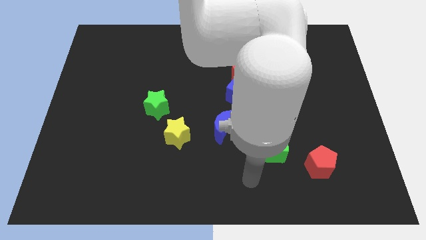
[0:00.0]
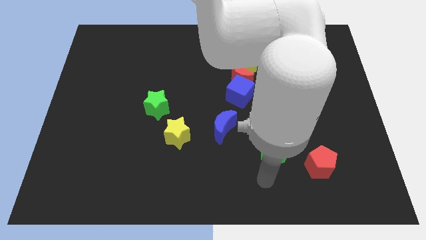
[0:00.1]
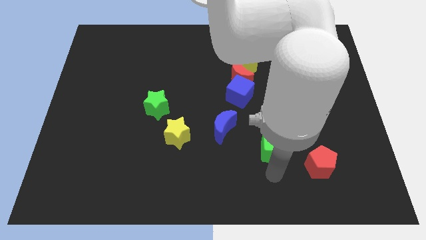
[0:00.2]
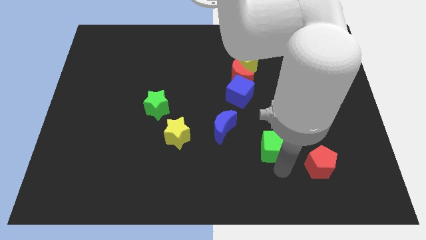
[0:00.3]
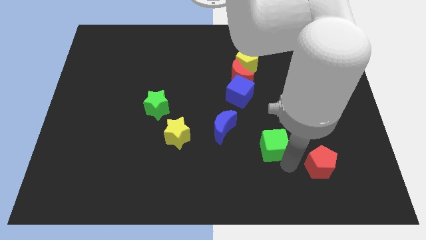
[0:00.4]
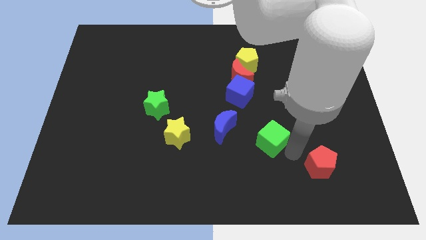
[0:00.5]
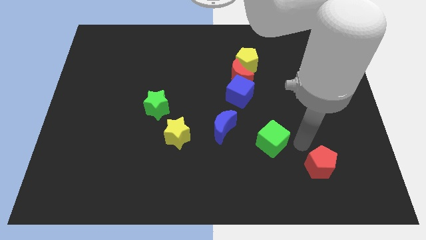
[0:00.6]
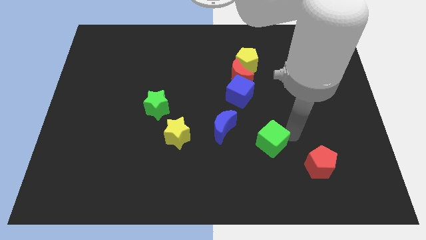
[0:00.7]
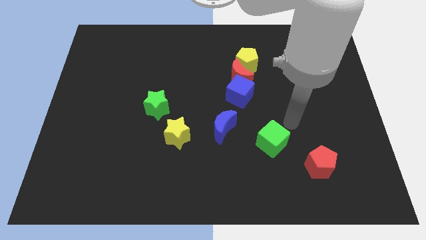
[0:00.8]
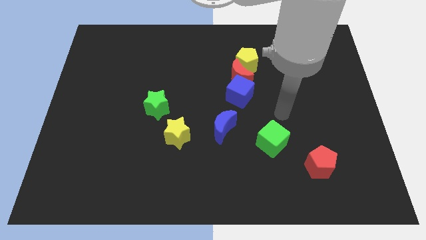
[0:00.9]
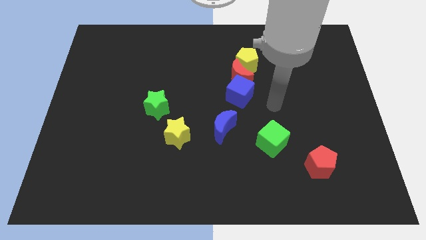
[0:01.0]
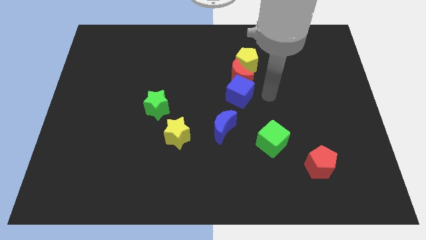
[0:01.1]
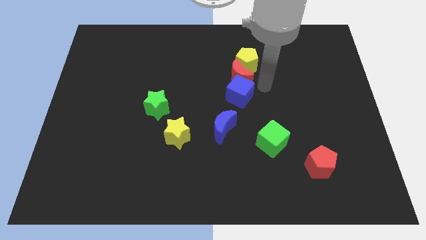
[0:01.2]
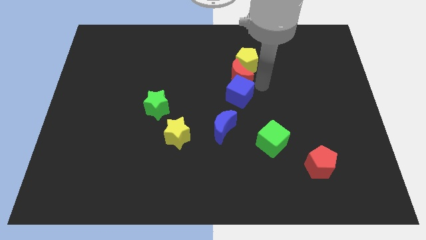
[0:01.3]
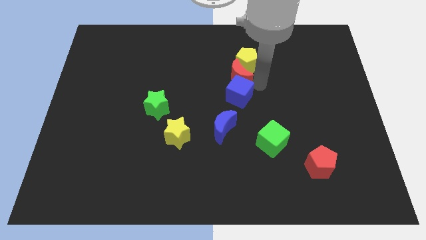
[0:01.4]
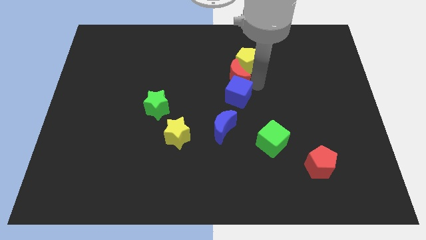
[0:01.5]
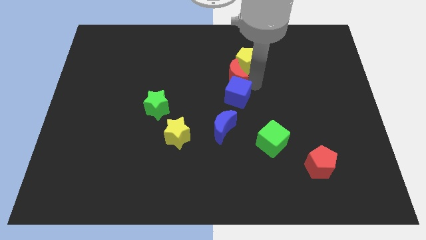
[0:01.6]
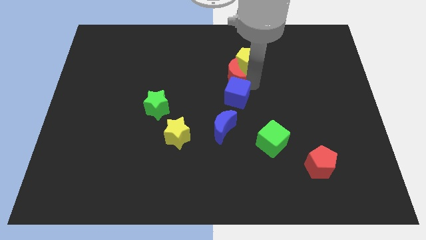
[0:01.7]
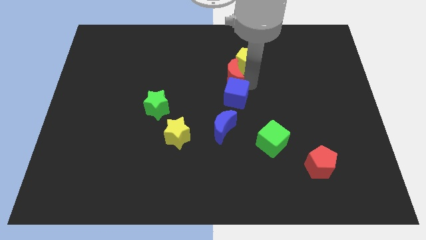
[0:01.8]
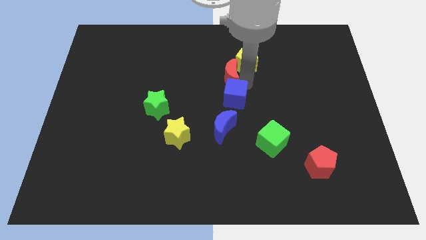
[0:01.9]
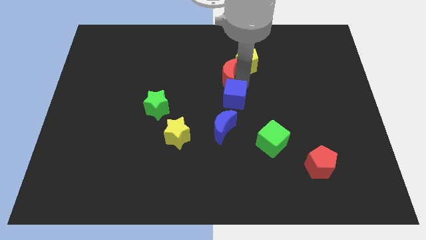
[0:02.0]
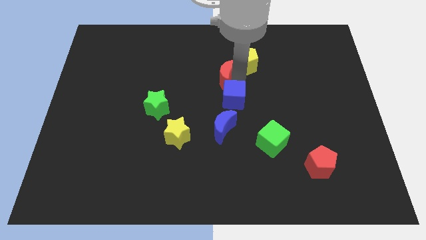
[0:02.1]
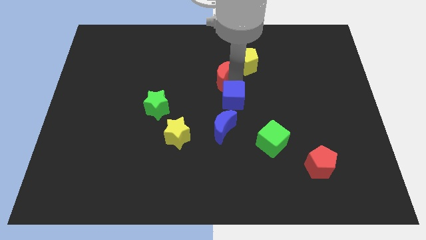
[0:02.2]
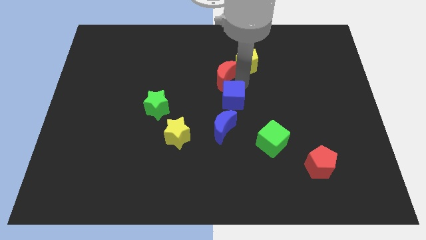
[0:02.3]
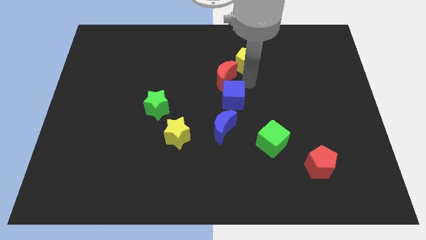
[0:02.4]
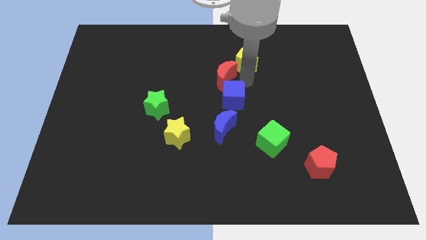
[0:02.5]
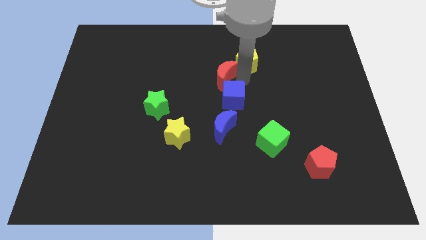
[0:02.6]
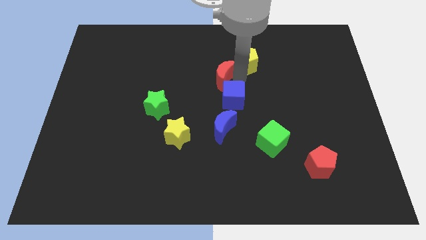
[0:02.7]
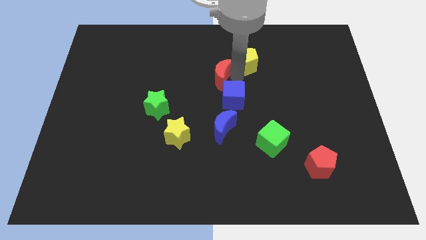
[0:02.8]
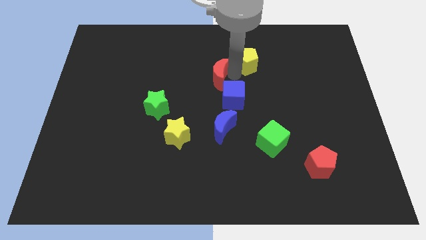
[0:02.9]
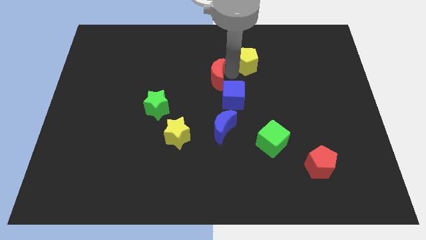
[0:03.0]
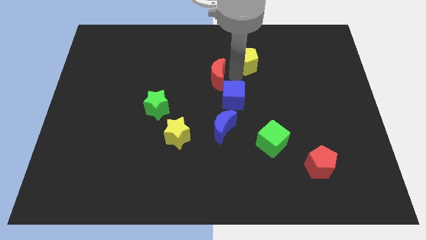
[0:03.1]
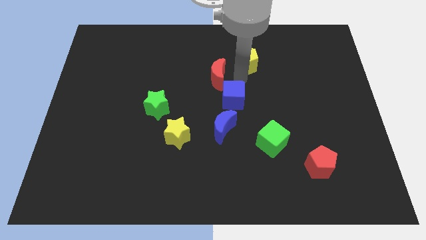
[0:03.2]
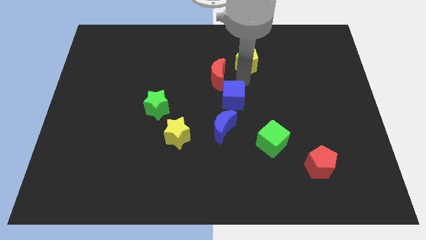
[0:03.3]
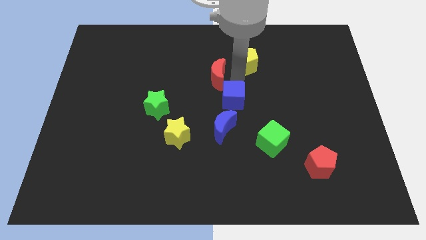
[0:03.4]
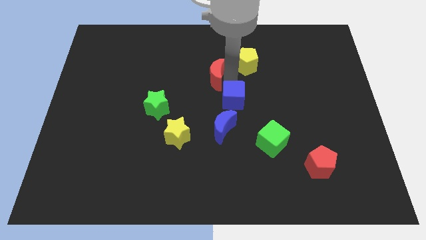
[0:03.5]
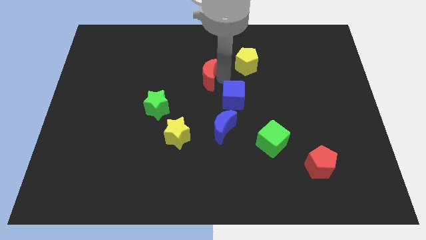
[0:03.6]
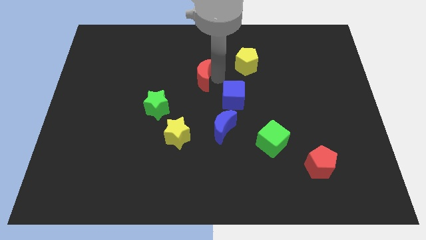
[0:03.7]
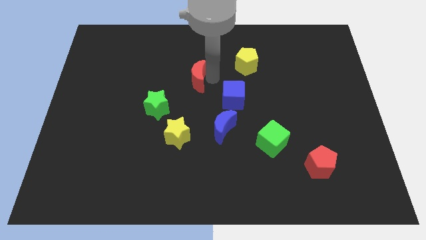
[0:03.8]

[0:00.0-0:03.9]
separate the red moon from the yellow pentagon and blue cube

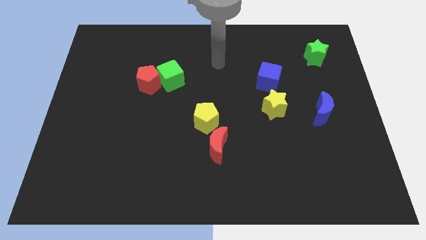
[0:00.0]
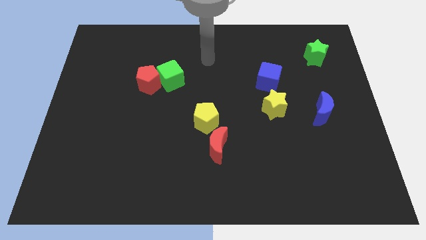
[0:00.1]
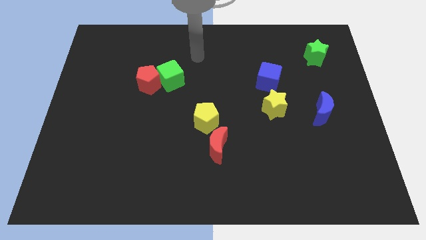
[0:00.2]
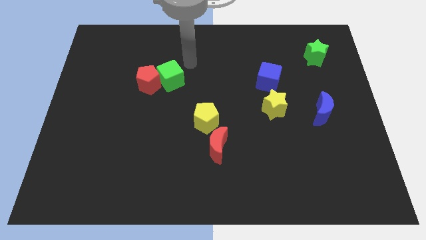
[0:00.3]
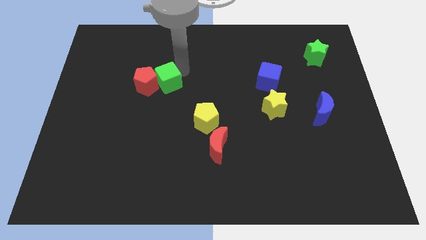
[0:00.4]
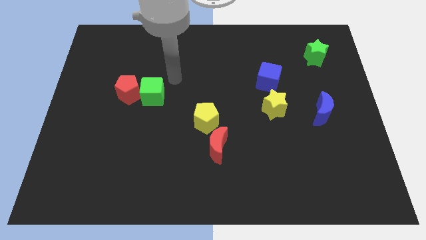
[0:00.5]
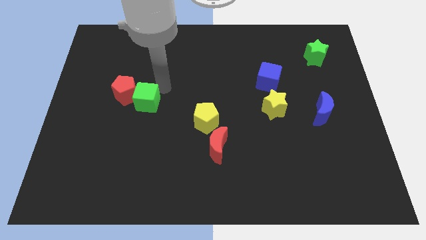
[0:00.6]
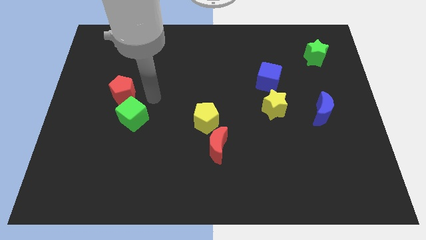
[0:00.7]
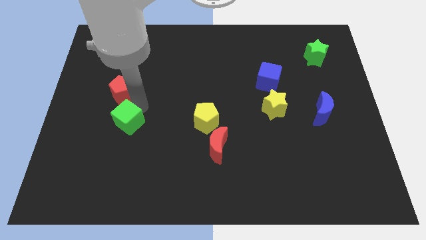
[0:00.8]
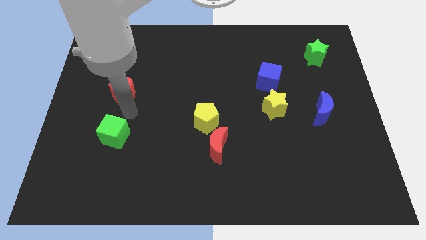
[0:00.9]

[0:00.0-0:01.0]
move the red pentagon away from the green cube

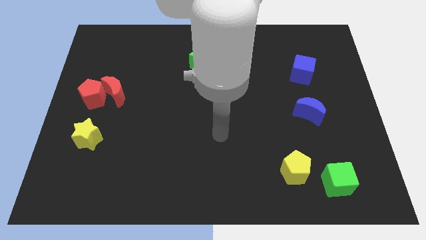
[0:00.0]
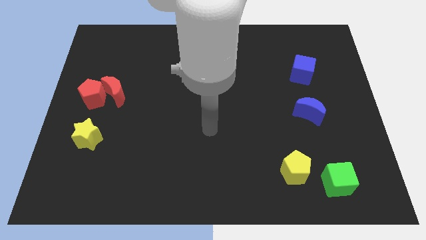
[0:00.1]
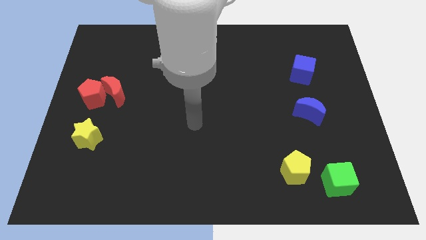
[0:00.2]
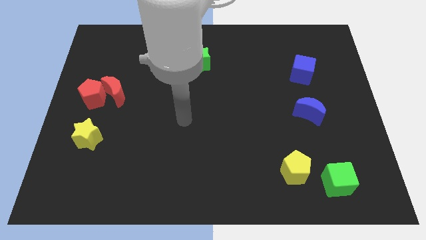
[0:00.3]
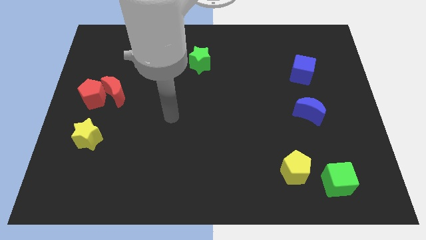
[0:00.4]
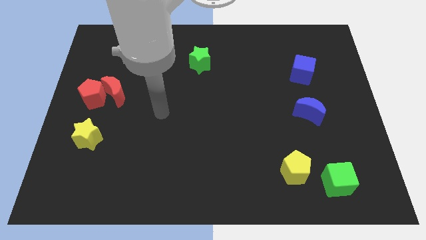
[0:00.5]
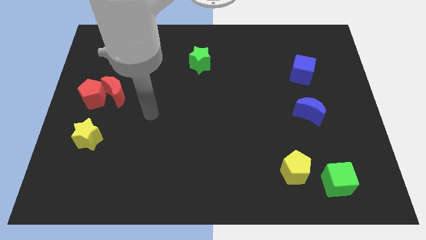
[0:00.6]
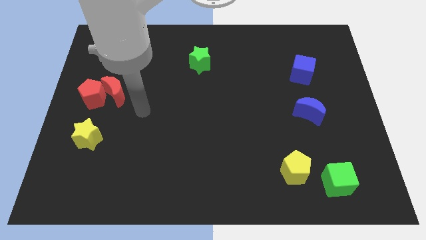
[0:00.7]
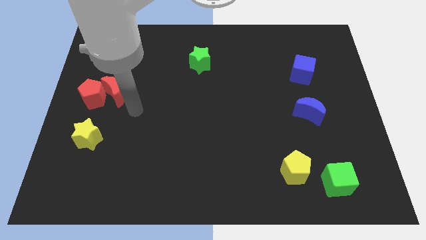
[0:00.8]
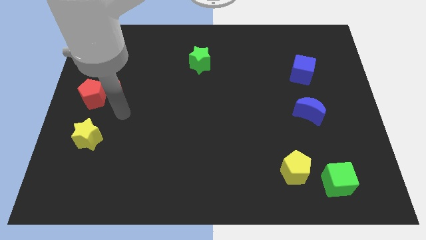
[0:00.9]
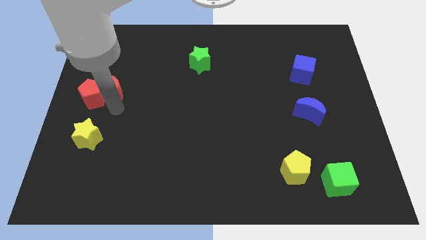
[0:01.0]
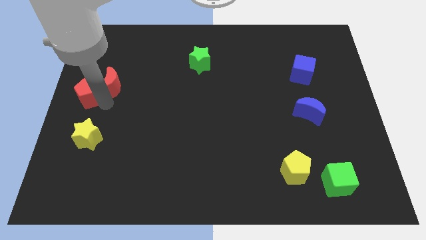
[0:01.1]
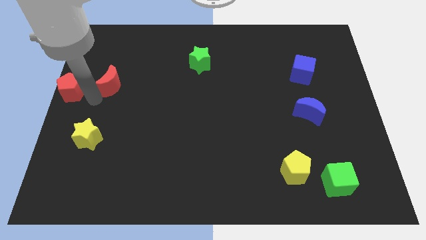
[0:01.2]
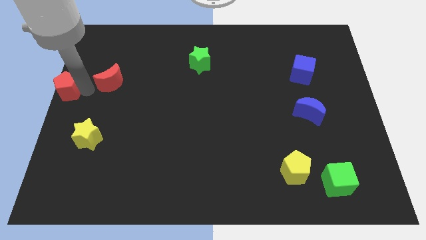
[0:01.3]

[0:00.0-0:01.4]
move the red moon away from the red pentagon

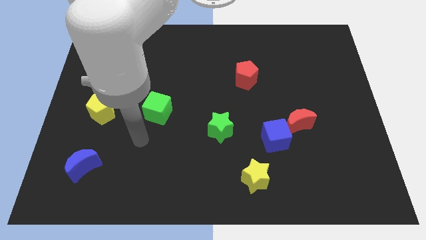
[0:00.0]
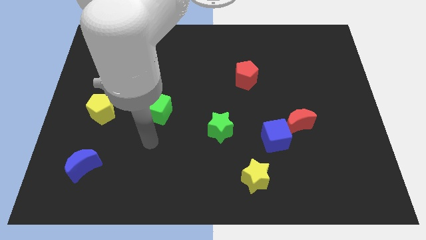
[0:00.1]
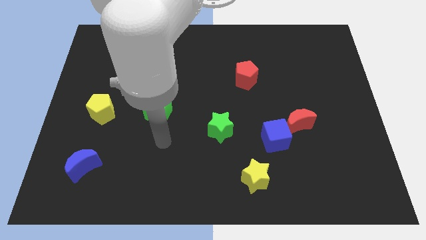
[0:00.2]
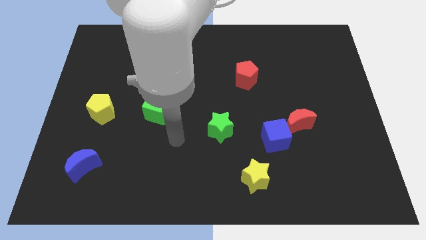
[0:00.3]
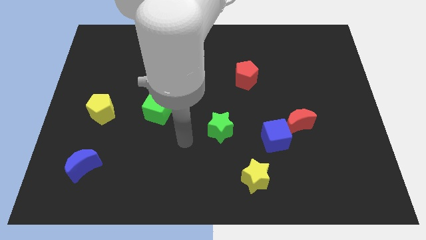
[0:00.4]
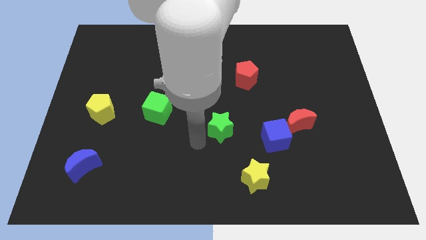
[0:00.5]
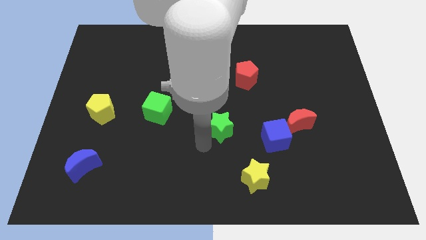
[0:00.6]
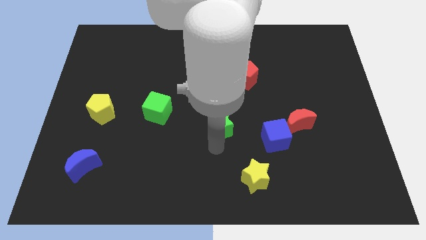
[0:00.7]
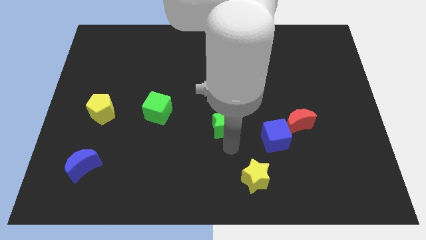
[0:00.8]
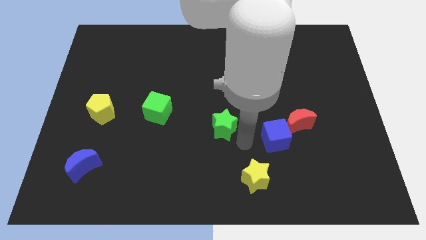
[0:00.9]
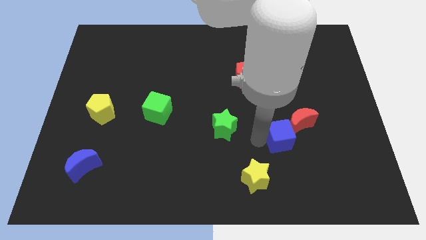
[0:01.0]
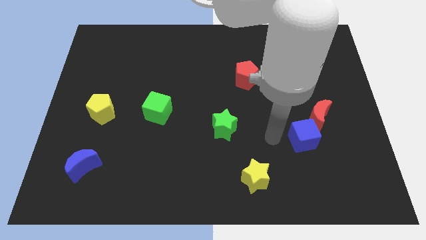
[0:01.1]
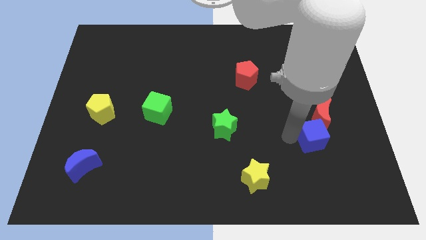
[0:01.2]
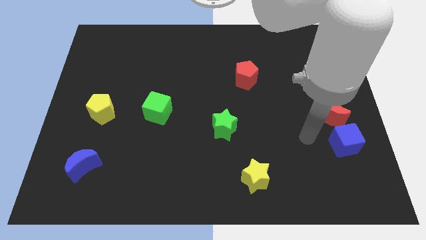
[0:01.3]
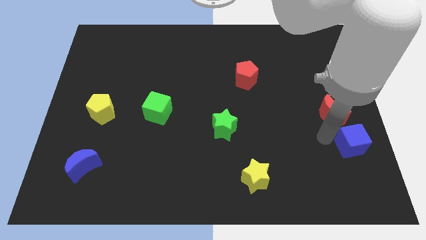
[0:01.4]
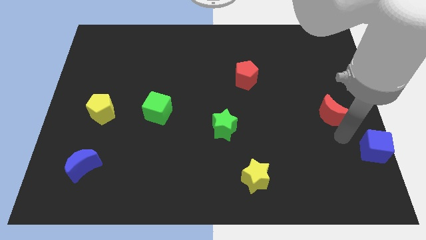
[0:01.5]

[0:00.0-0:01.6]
separate the red moon from the blue cube

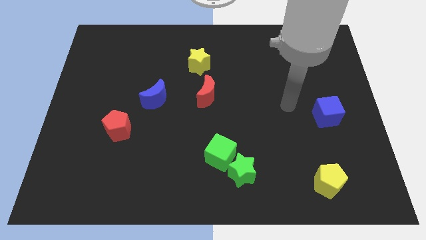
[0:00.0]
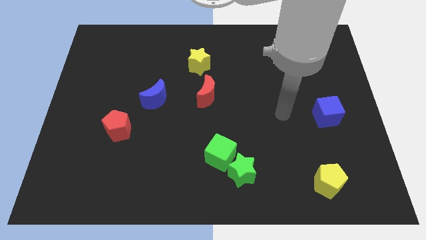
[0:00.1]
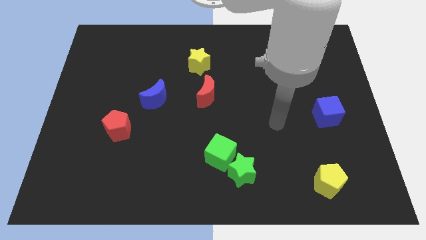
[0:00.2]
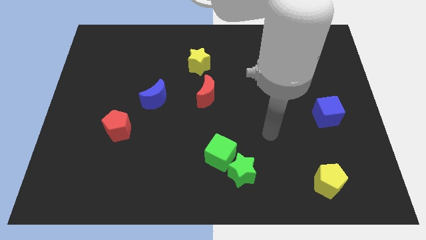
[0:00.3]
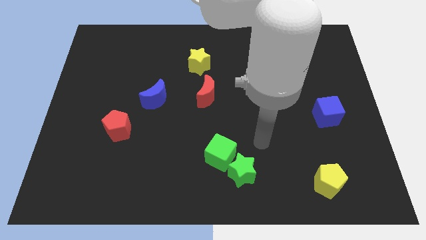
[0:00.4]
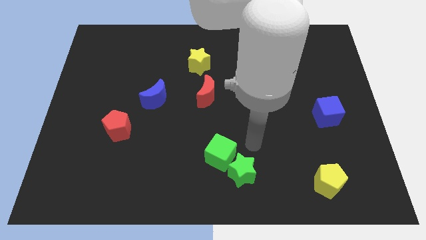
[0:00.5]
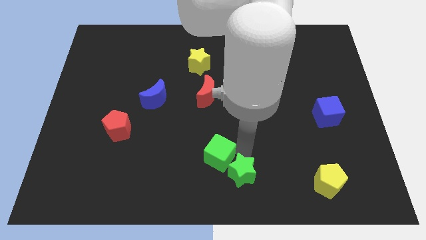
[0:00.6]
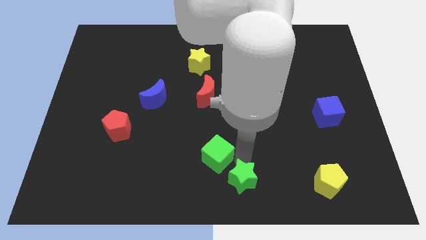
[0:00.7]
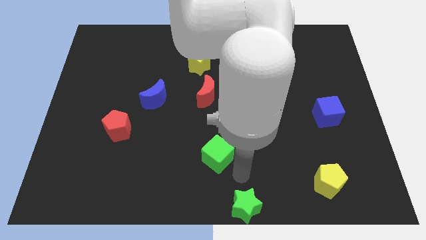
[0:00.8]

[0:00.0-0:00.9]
pull the green cube apart from the green star

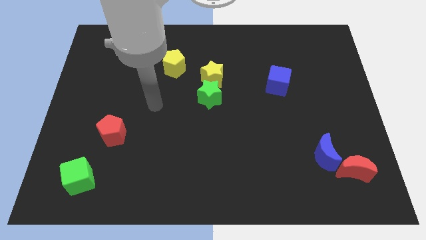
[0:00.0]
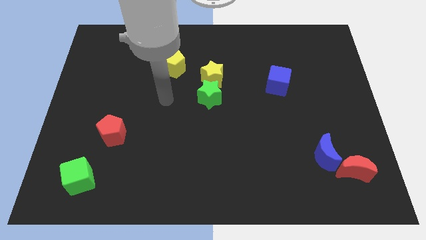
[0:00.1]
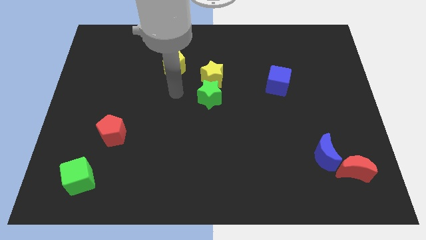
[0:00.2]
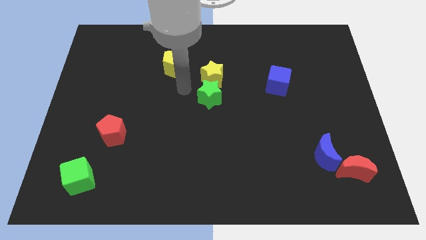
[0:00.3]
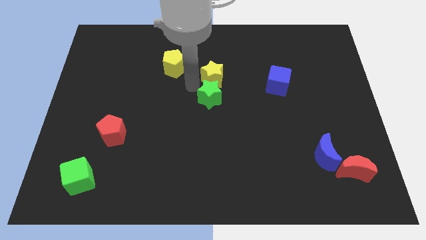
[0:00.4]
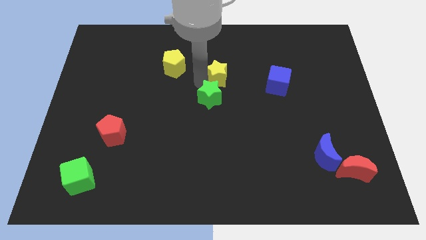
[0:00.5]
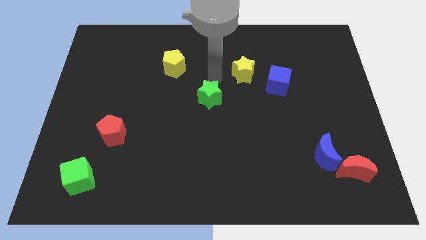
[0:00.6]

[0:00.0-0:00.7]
separate the green star from the yellow star
